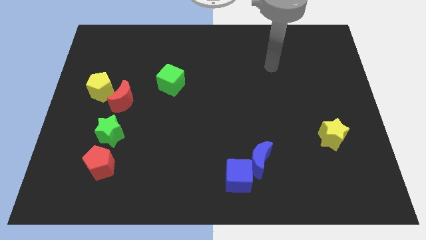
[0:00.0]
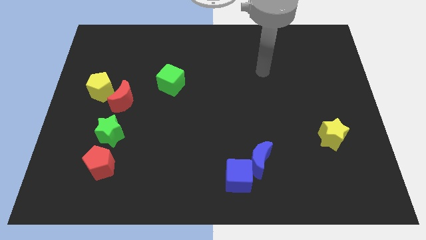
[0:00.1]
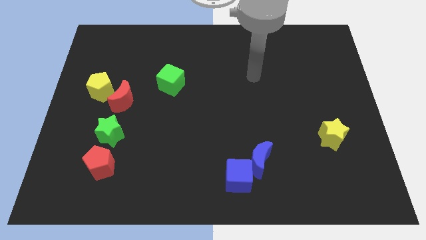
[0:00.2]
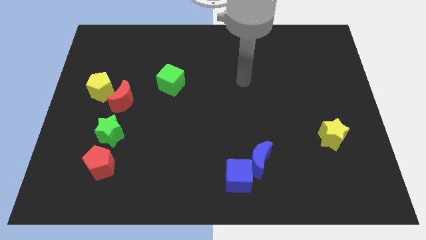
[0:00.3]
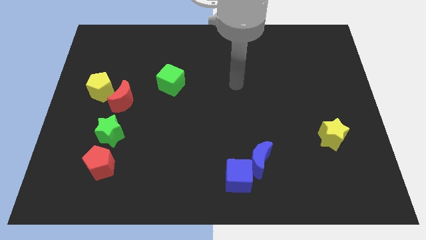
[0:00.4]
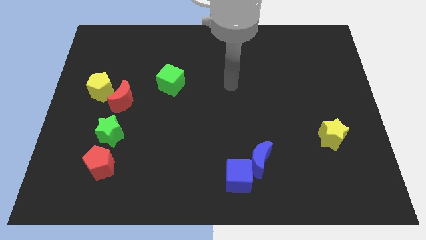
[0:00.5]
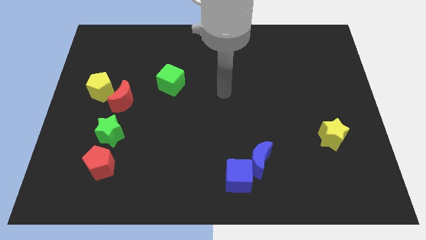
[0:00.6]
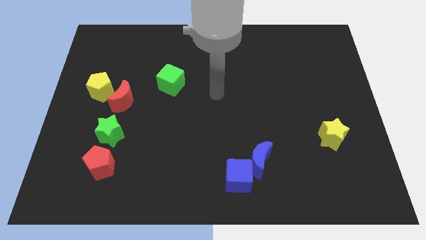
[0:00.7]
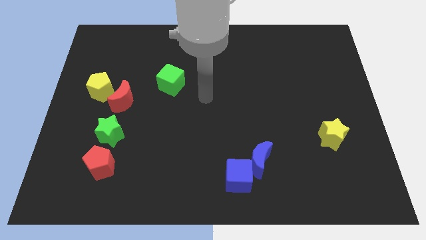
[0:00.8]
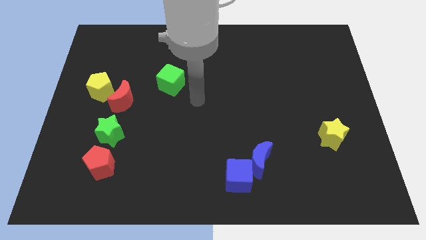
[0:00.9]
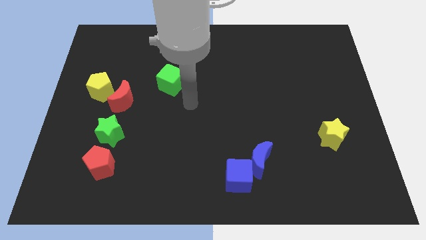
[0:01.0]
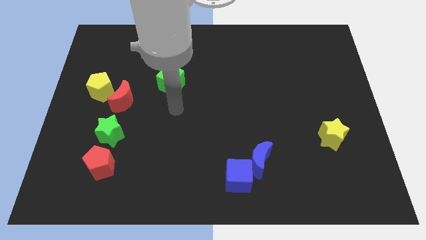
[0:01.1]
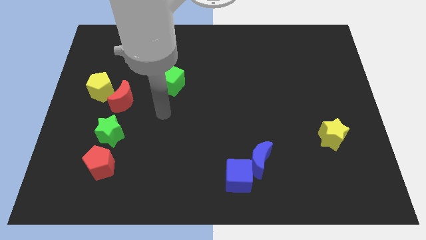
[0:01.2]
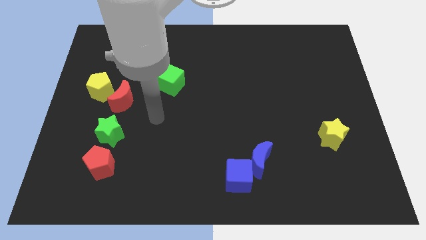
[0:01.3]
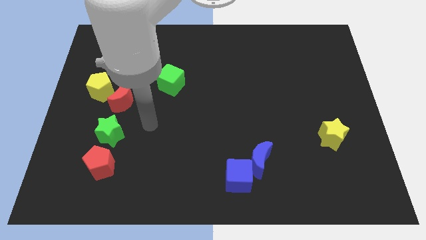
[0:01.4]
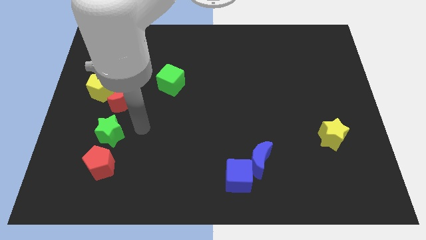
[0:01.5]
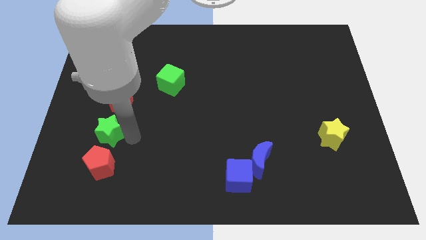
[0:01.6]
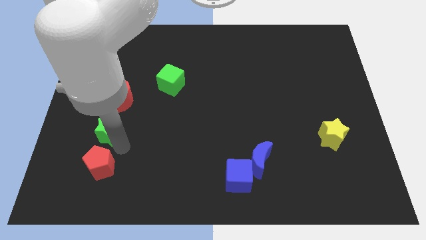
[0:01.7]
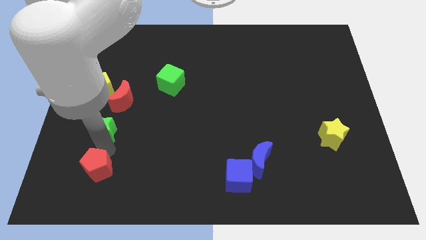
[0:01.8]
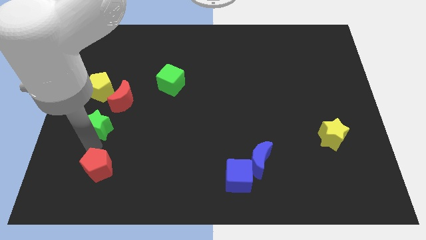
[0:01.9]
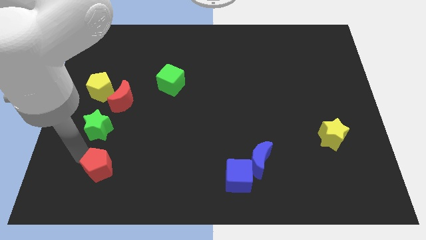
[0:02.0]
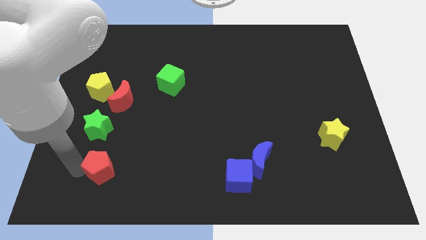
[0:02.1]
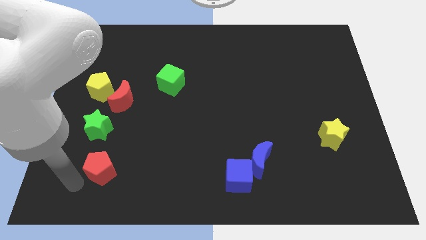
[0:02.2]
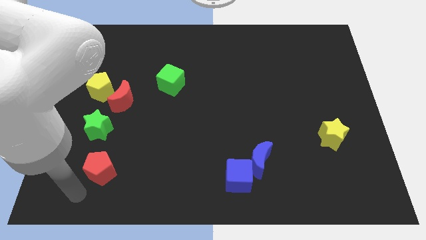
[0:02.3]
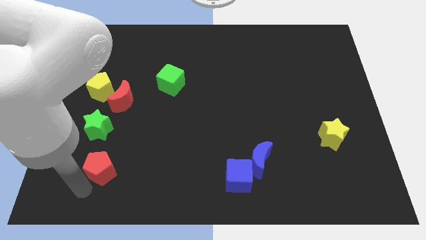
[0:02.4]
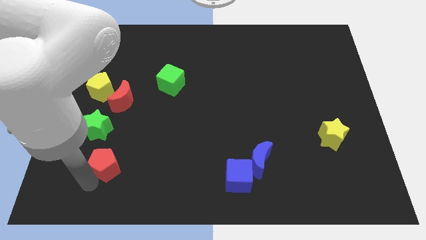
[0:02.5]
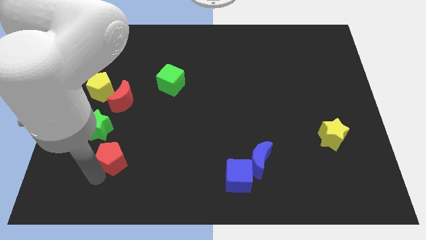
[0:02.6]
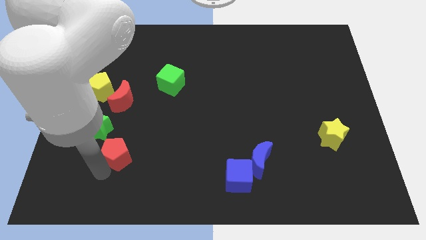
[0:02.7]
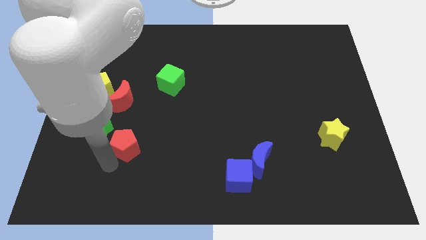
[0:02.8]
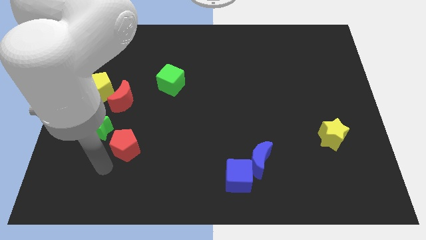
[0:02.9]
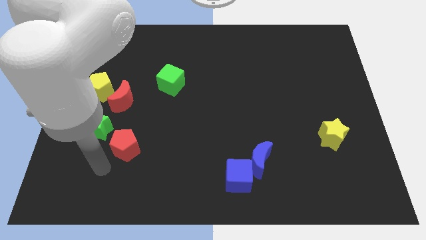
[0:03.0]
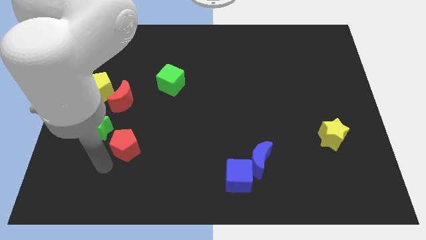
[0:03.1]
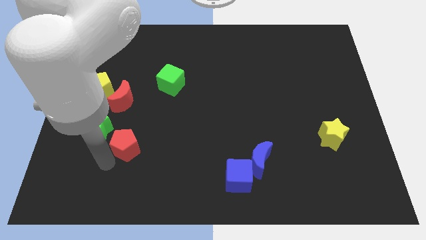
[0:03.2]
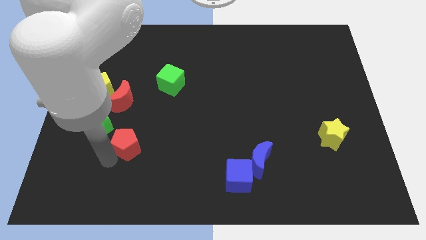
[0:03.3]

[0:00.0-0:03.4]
slightly slide the red pentagon upwards and then right

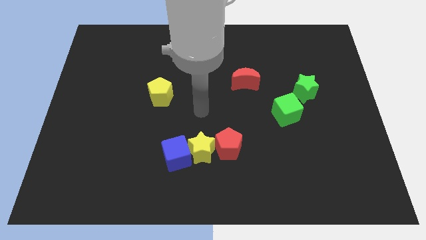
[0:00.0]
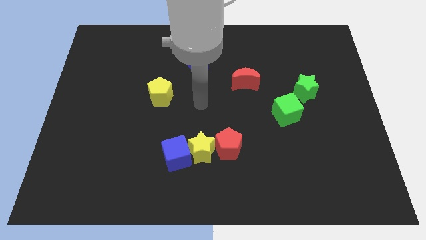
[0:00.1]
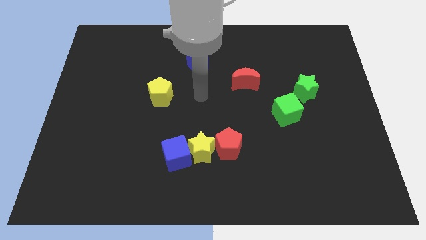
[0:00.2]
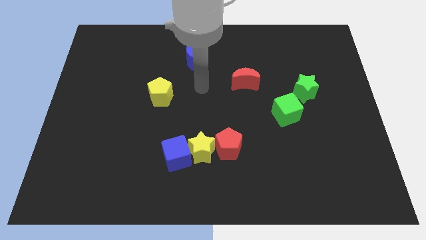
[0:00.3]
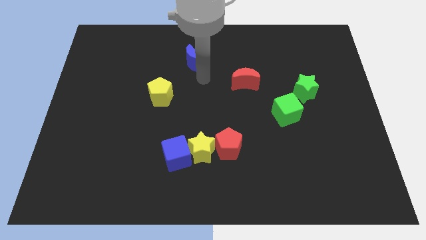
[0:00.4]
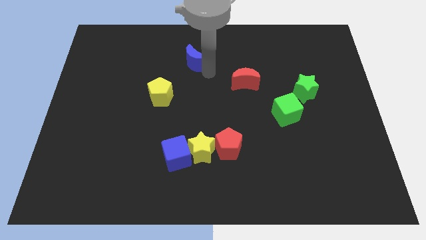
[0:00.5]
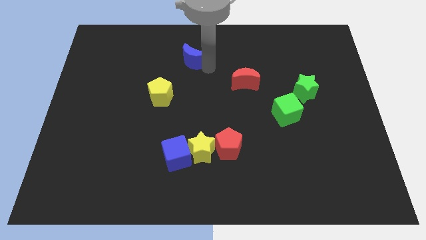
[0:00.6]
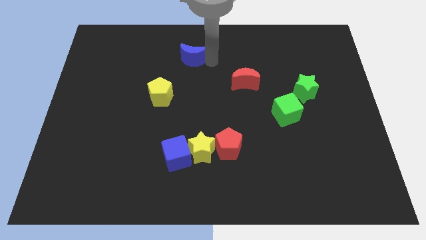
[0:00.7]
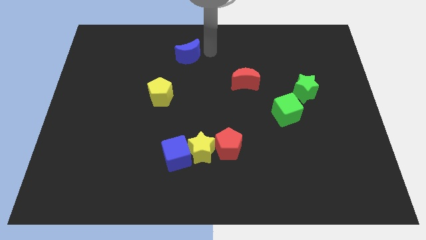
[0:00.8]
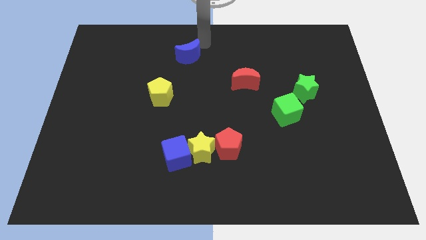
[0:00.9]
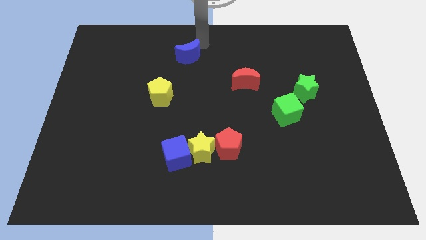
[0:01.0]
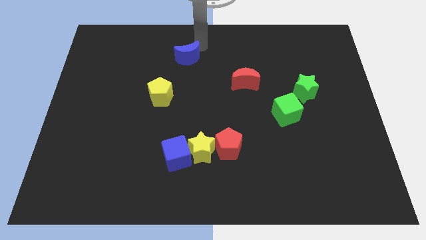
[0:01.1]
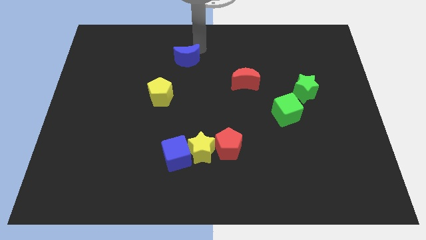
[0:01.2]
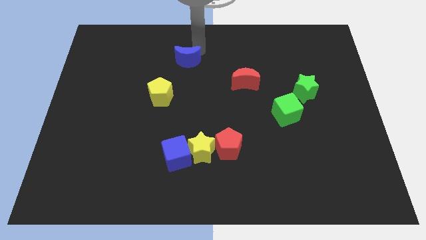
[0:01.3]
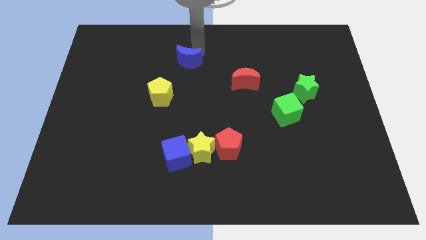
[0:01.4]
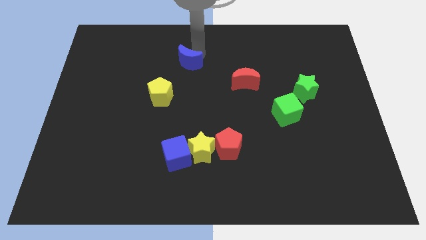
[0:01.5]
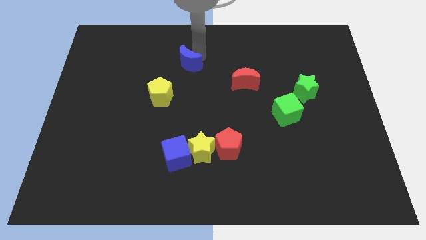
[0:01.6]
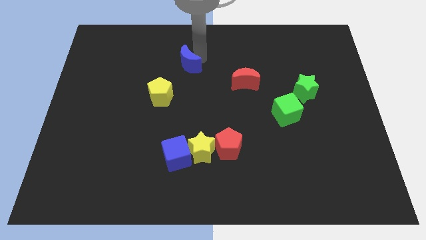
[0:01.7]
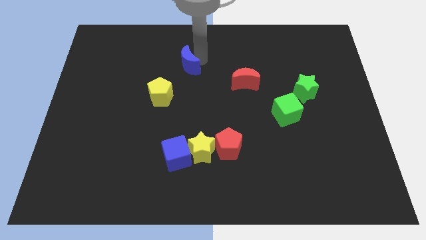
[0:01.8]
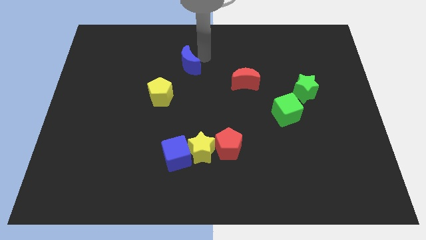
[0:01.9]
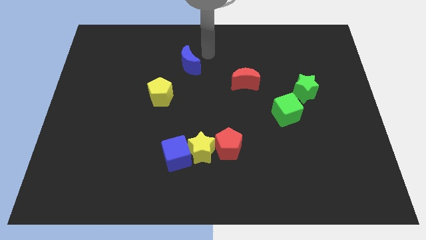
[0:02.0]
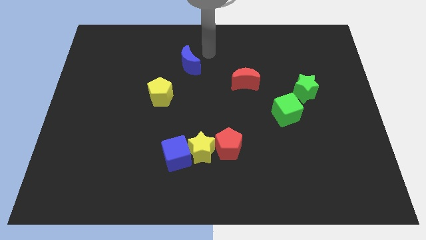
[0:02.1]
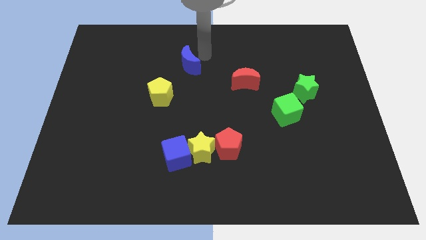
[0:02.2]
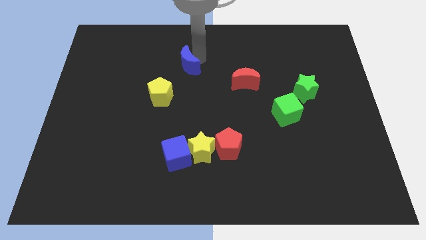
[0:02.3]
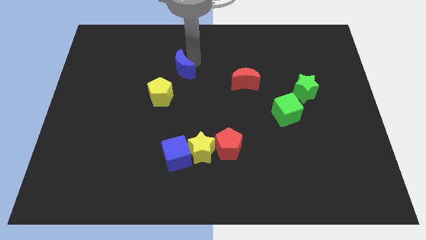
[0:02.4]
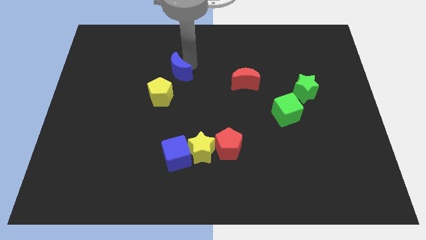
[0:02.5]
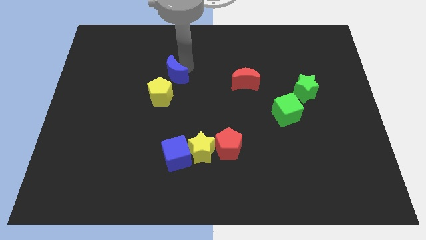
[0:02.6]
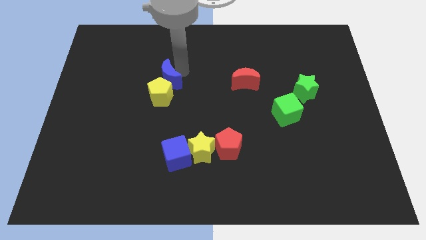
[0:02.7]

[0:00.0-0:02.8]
slightly slide the blue moon diagonally downwards and to the left

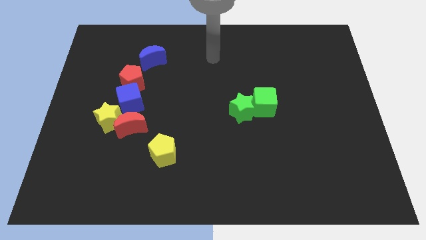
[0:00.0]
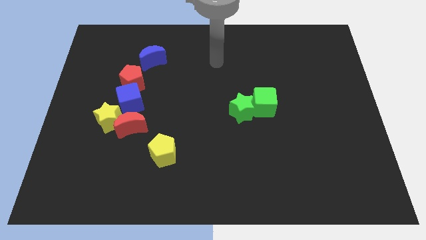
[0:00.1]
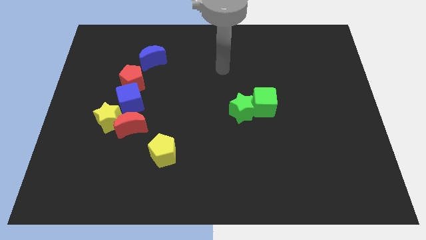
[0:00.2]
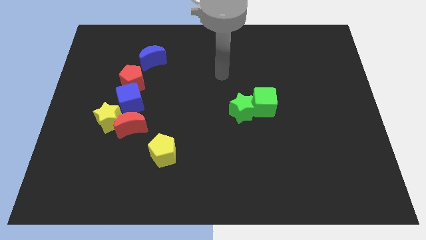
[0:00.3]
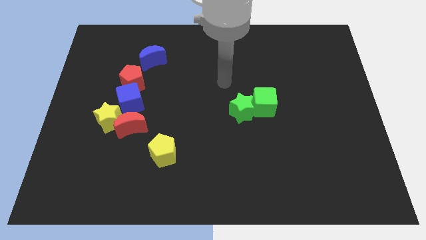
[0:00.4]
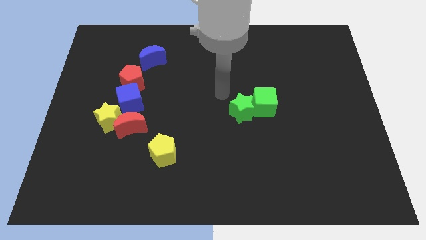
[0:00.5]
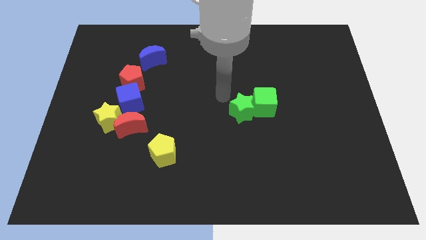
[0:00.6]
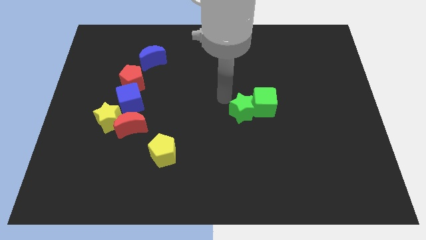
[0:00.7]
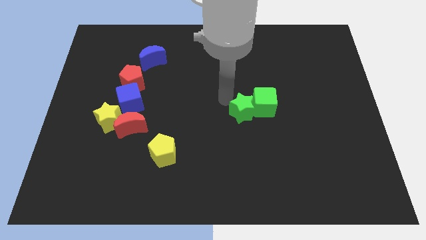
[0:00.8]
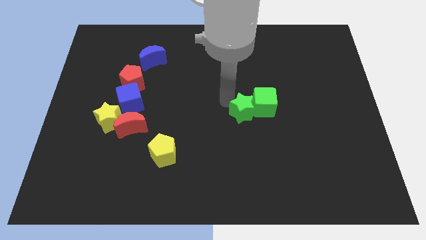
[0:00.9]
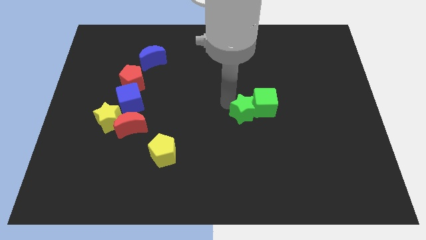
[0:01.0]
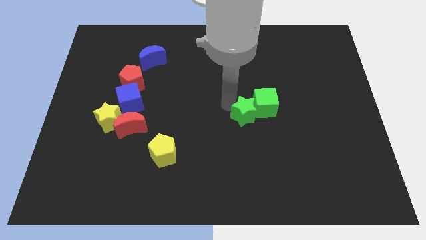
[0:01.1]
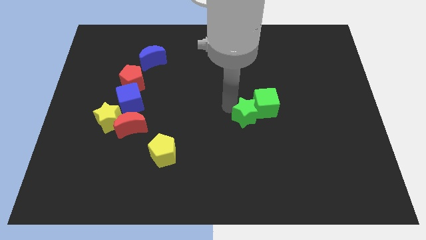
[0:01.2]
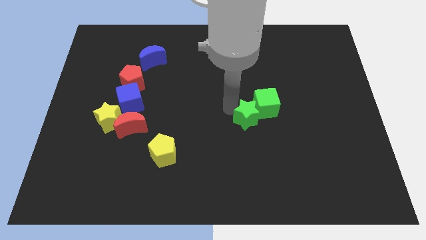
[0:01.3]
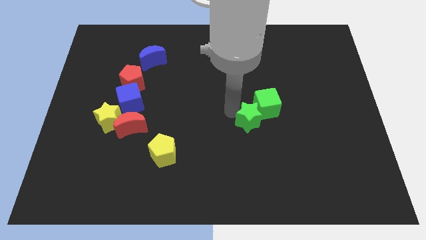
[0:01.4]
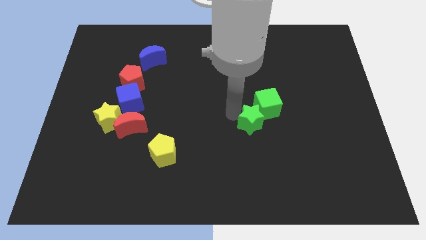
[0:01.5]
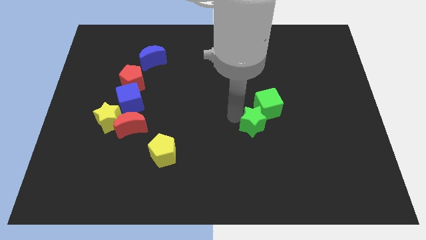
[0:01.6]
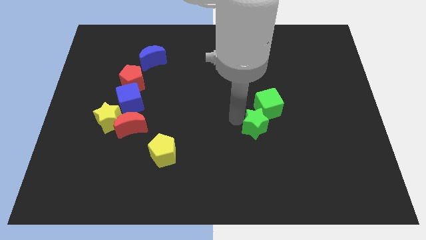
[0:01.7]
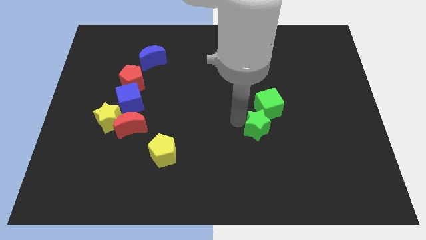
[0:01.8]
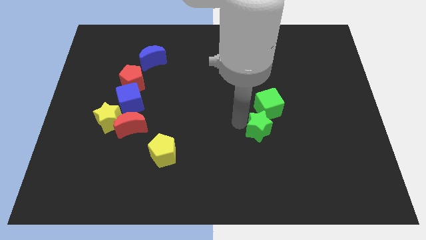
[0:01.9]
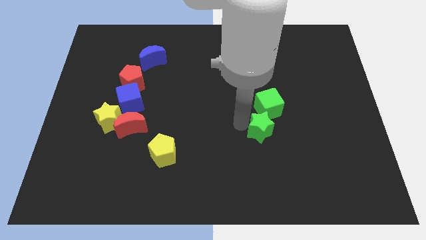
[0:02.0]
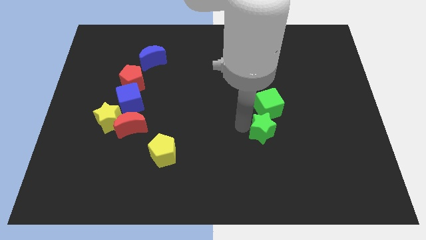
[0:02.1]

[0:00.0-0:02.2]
move the green star down and right diagonally a bit
